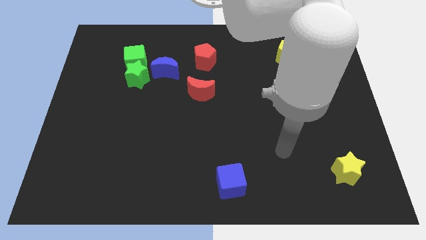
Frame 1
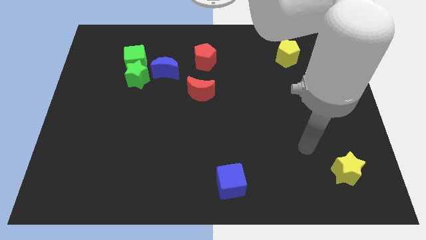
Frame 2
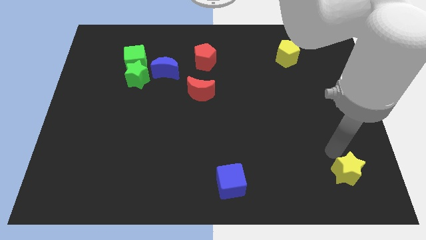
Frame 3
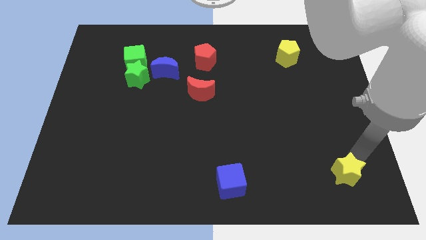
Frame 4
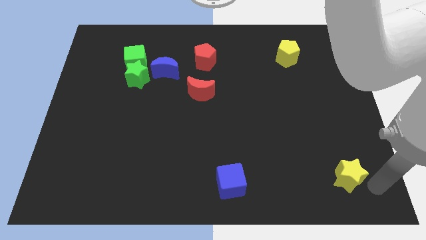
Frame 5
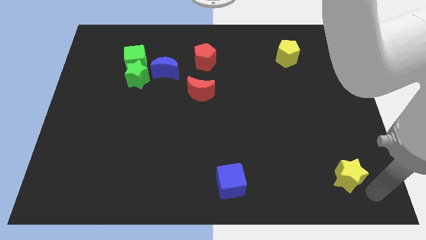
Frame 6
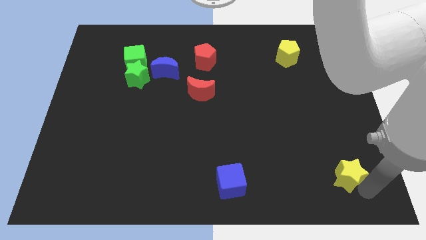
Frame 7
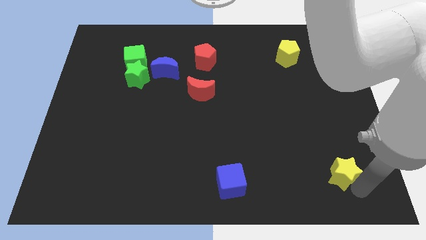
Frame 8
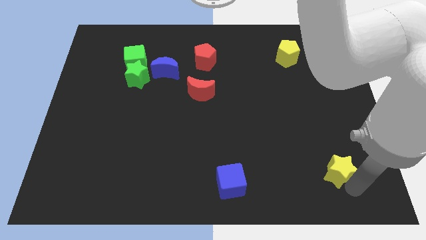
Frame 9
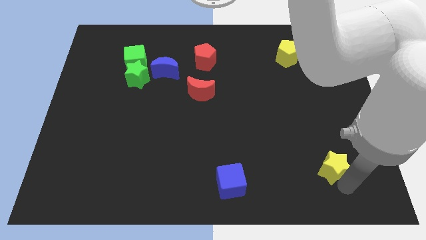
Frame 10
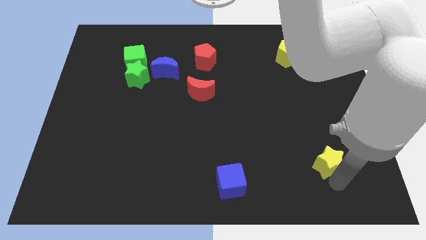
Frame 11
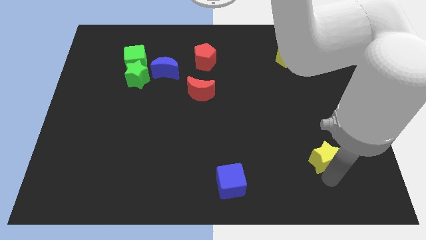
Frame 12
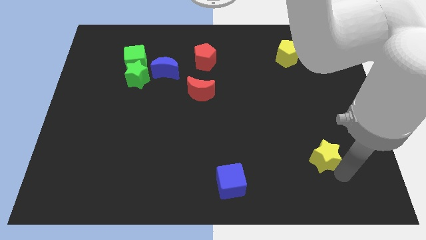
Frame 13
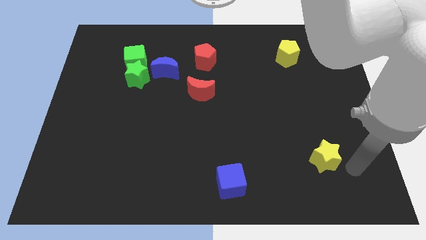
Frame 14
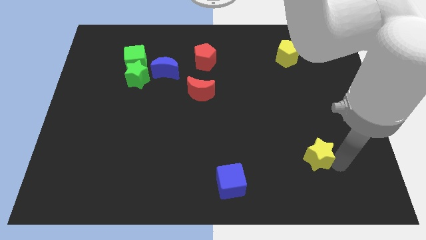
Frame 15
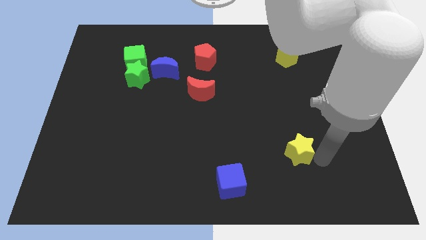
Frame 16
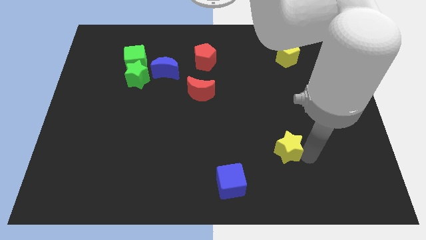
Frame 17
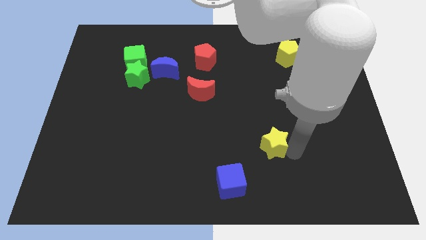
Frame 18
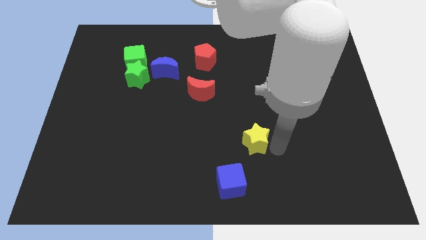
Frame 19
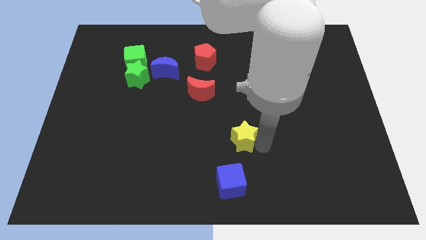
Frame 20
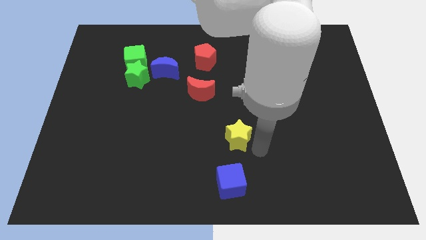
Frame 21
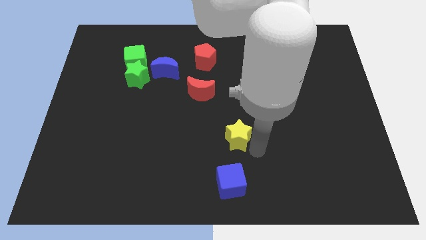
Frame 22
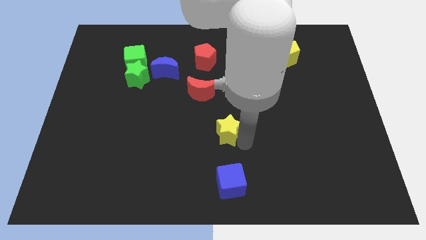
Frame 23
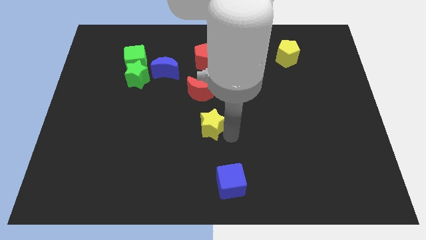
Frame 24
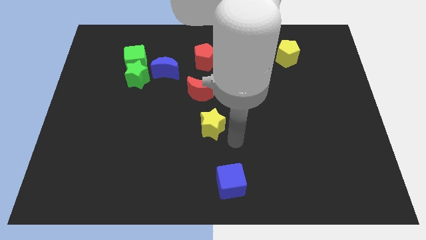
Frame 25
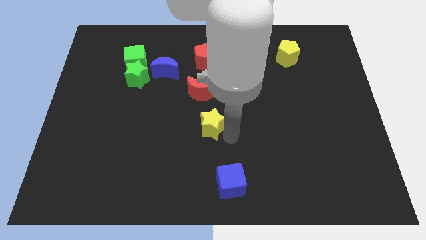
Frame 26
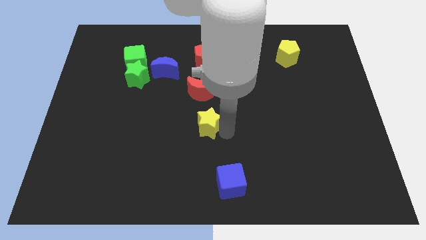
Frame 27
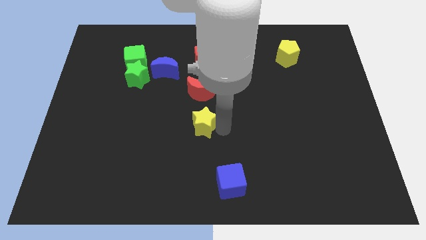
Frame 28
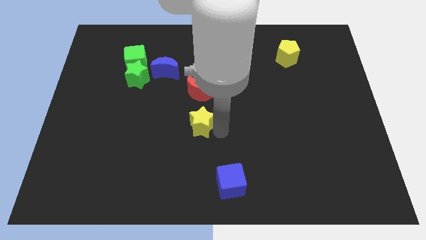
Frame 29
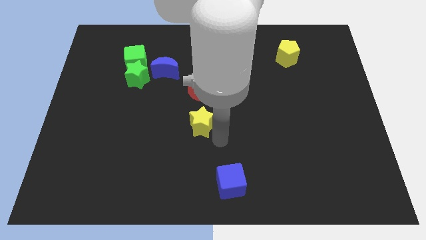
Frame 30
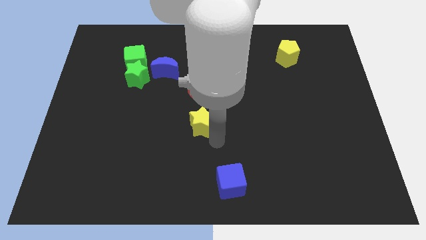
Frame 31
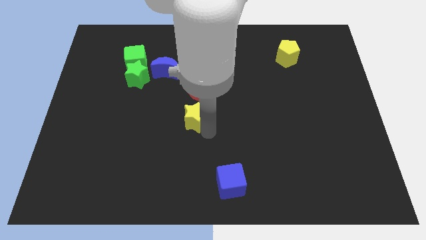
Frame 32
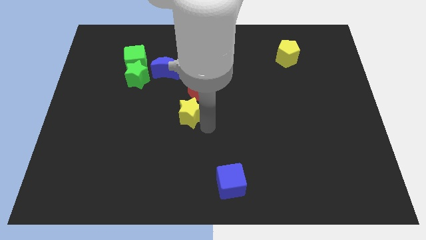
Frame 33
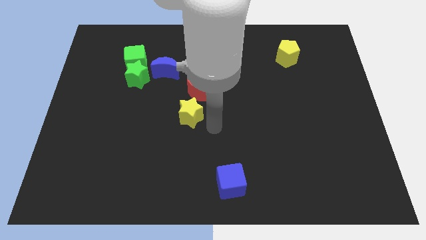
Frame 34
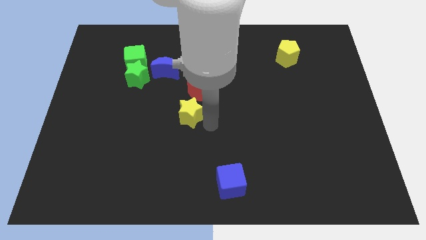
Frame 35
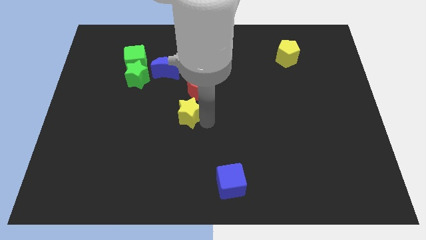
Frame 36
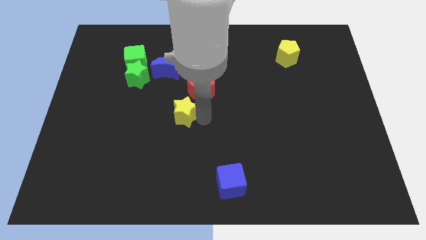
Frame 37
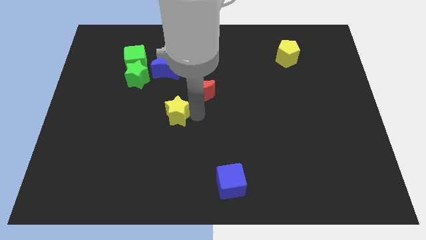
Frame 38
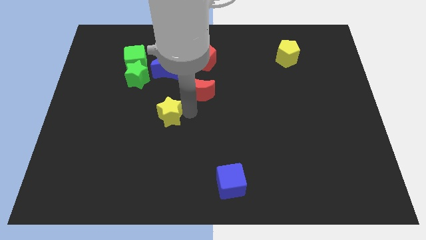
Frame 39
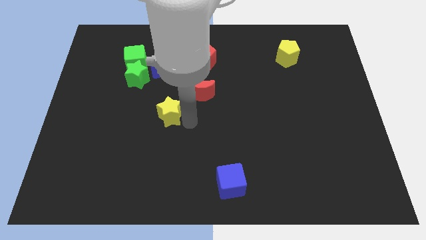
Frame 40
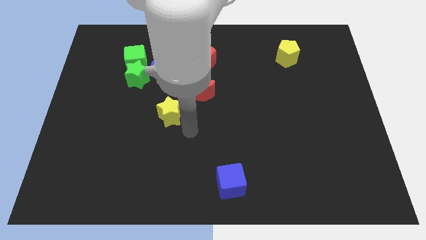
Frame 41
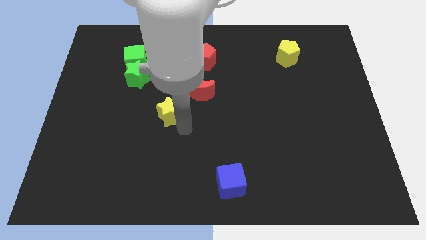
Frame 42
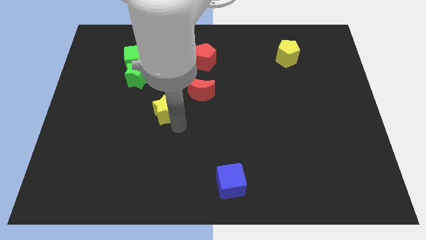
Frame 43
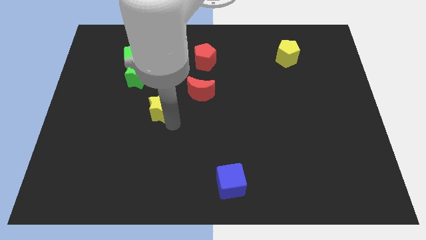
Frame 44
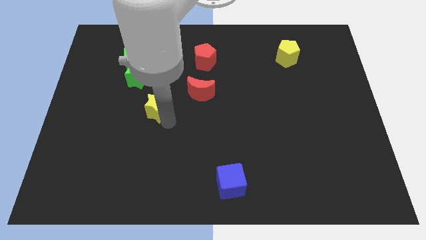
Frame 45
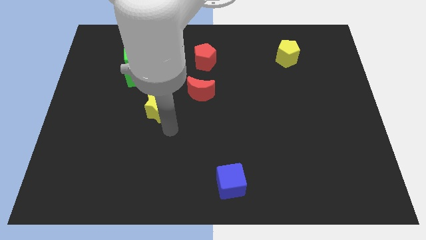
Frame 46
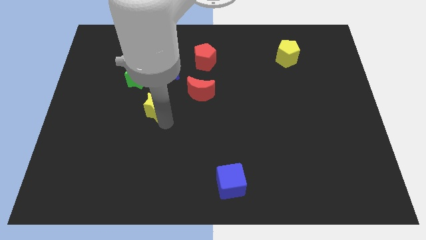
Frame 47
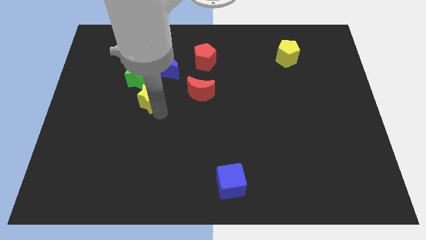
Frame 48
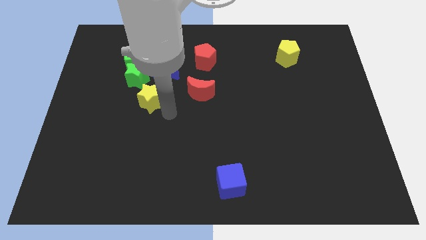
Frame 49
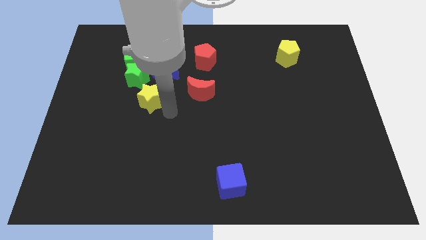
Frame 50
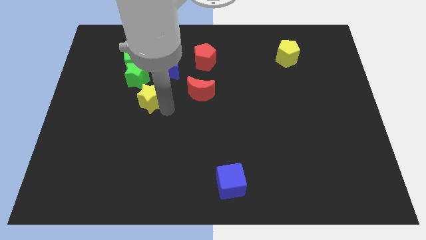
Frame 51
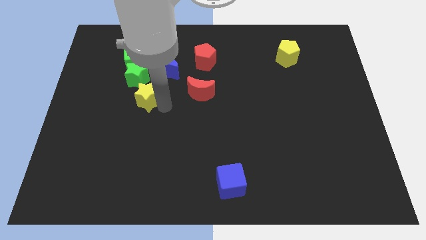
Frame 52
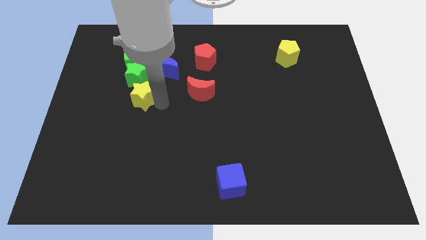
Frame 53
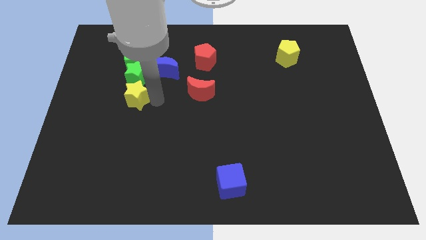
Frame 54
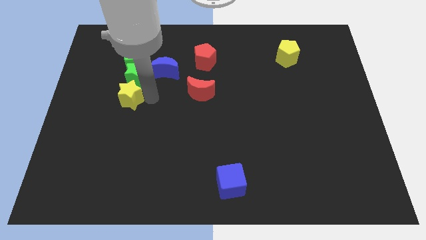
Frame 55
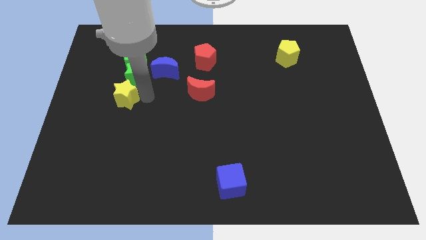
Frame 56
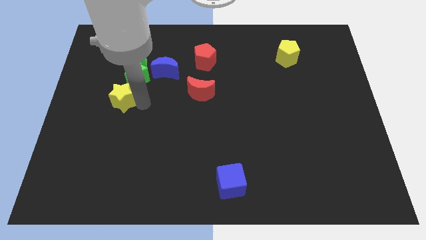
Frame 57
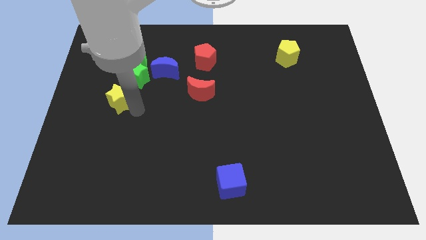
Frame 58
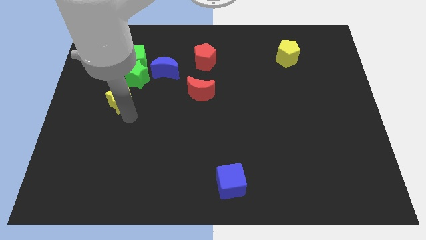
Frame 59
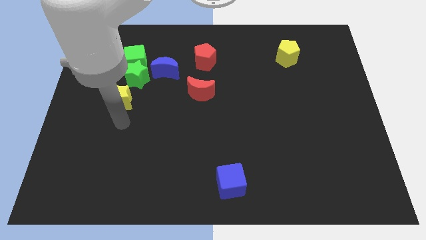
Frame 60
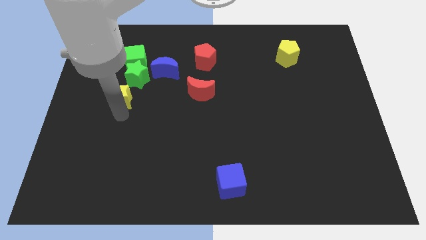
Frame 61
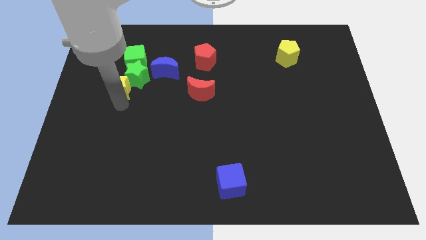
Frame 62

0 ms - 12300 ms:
put the yellow star diagonally down and to the left of the green cube

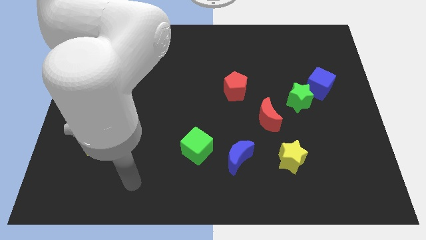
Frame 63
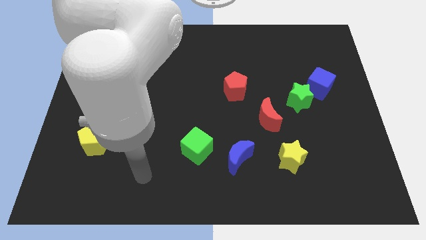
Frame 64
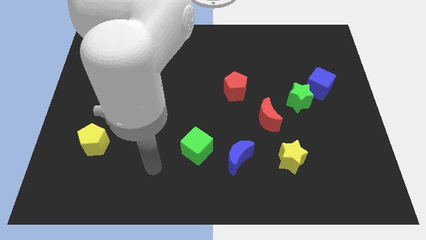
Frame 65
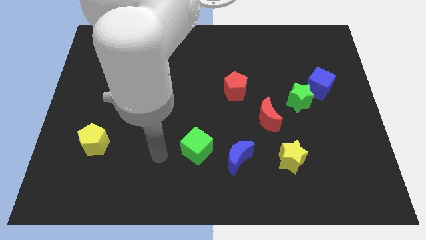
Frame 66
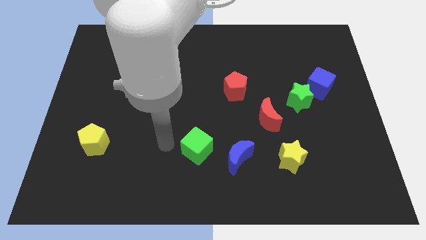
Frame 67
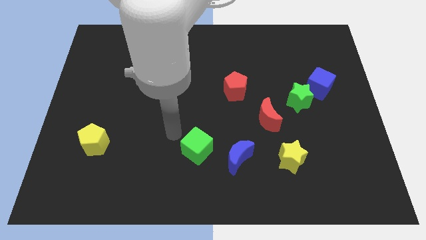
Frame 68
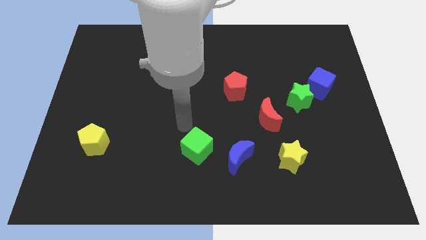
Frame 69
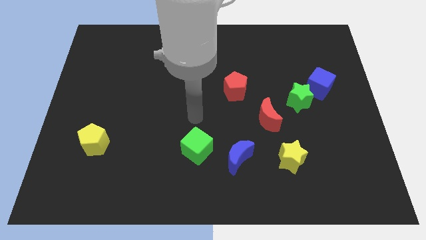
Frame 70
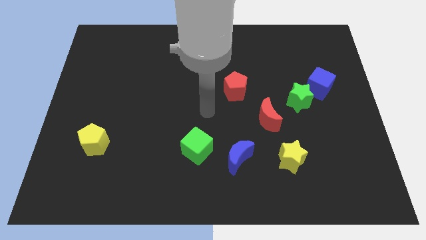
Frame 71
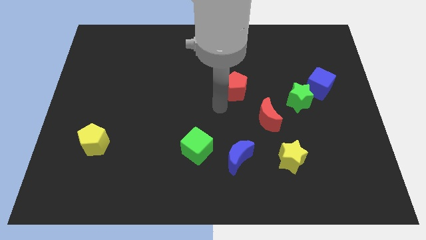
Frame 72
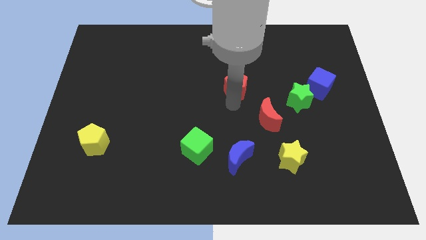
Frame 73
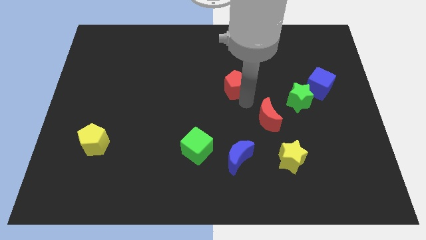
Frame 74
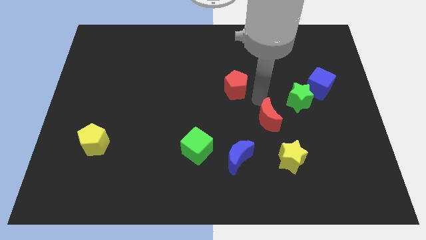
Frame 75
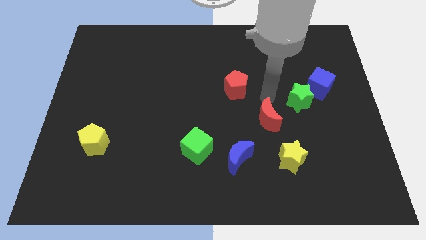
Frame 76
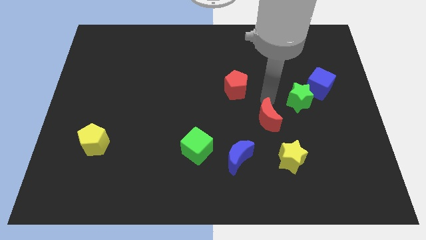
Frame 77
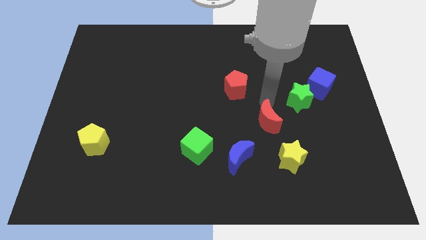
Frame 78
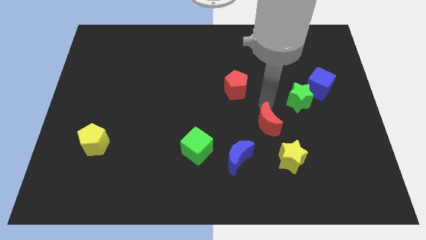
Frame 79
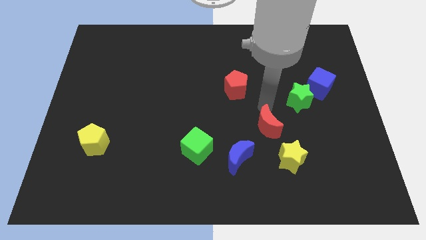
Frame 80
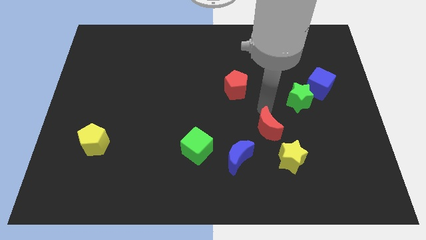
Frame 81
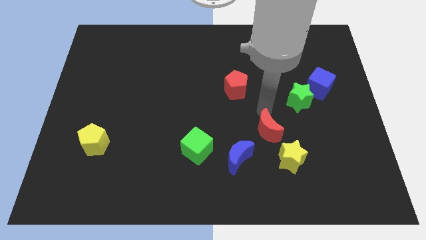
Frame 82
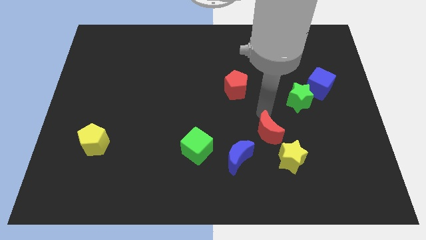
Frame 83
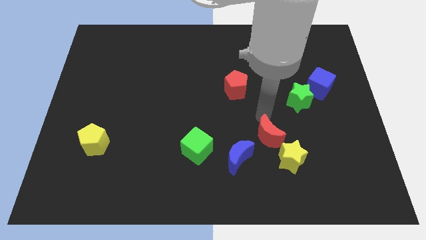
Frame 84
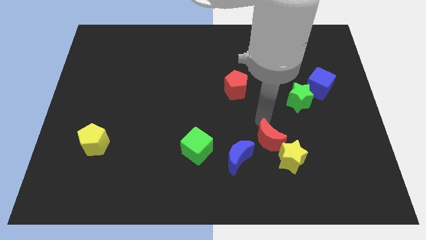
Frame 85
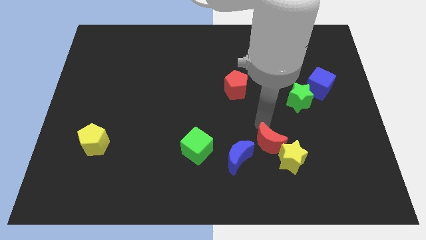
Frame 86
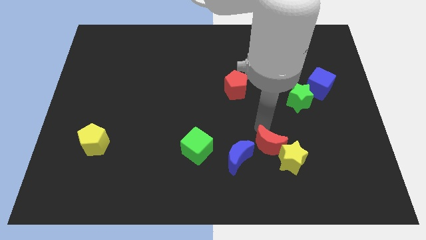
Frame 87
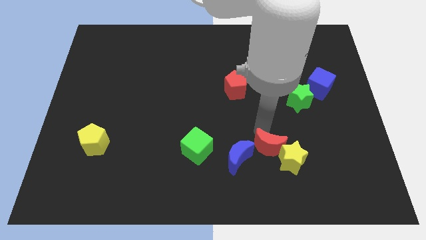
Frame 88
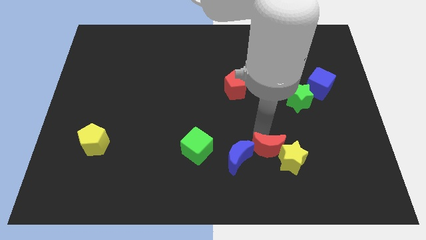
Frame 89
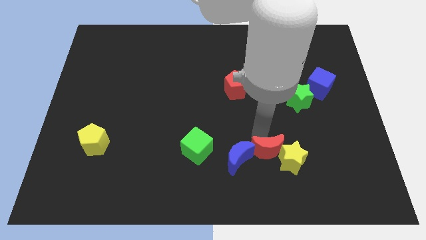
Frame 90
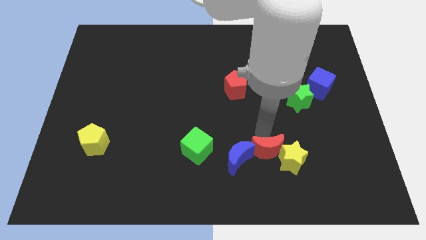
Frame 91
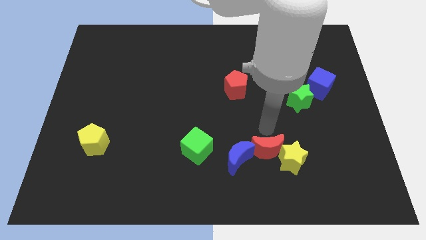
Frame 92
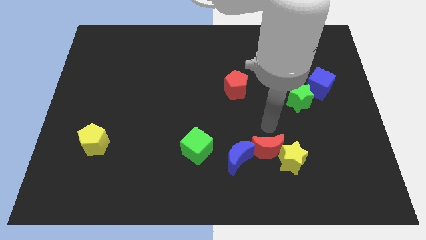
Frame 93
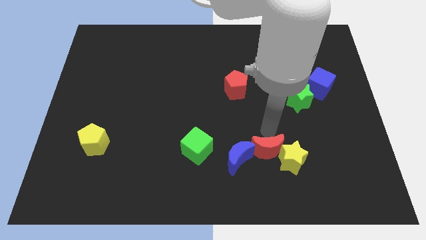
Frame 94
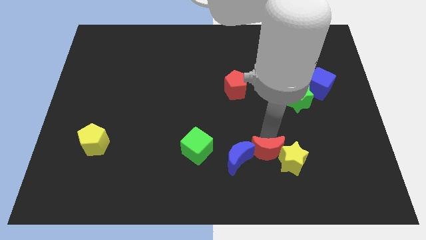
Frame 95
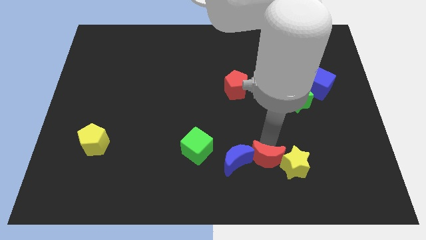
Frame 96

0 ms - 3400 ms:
move the red moon to the bottom right of the blue moon
